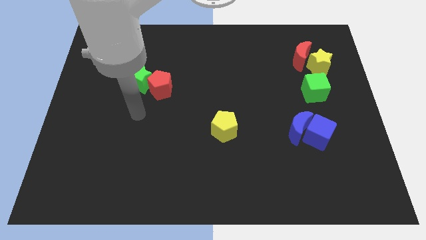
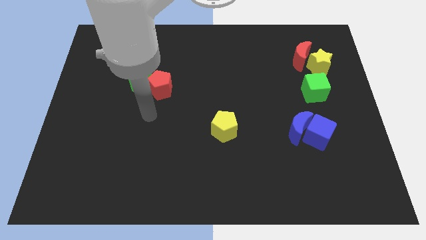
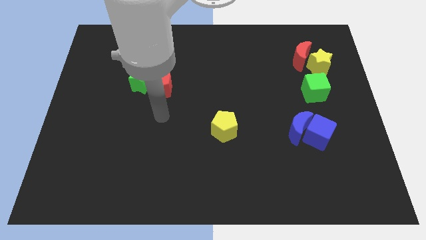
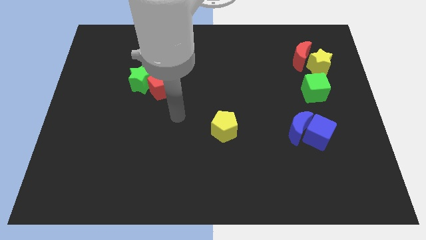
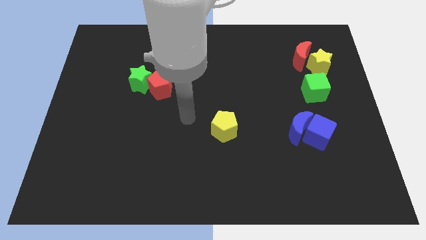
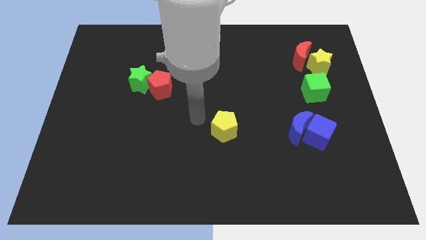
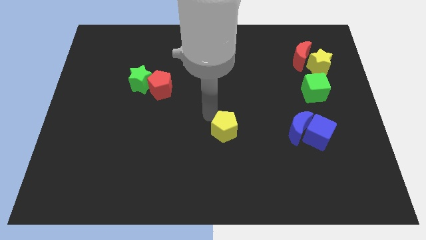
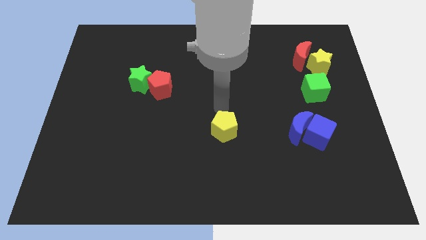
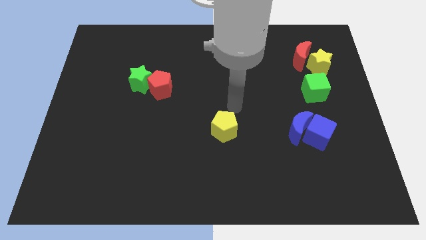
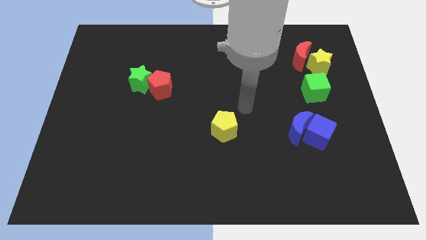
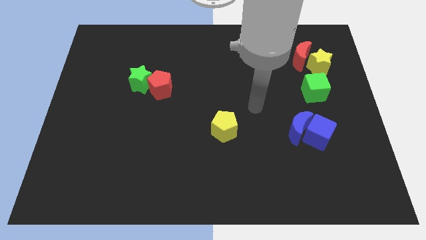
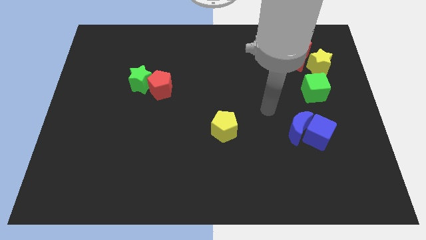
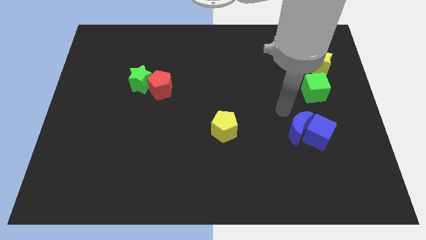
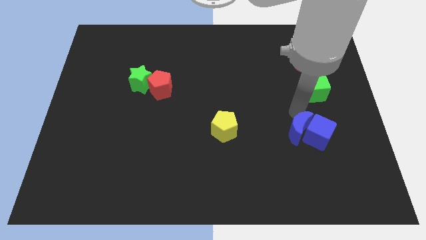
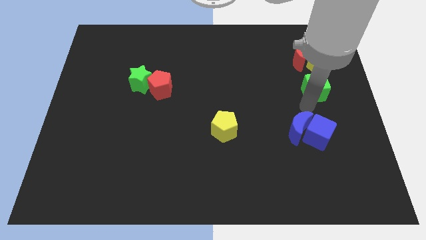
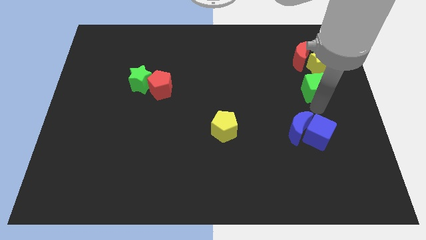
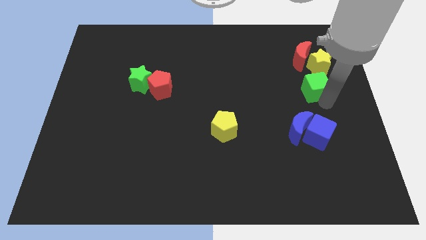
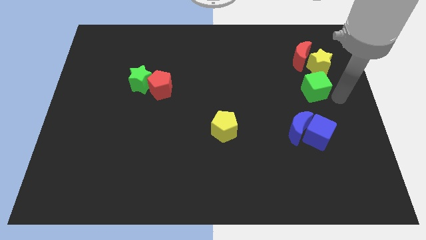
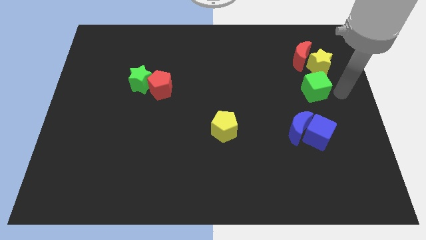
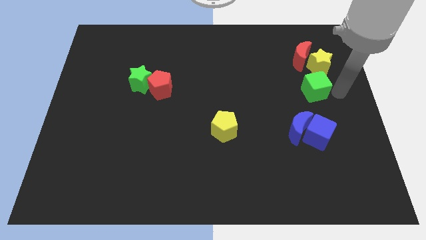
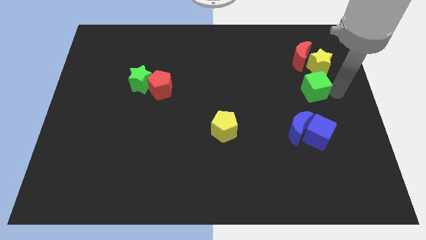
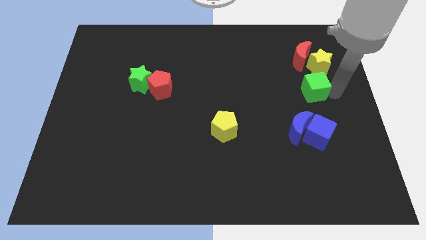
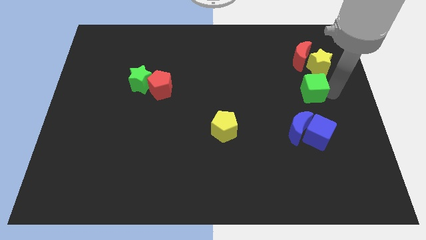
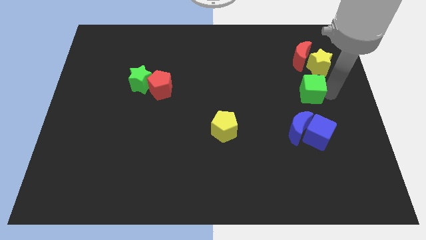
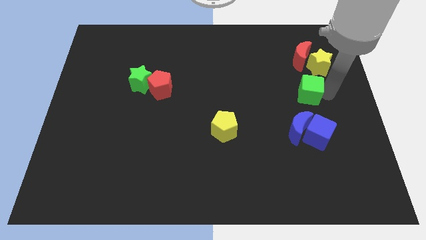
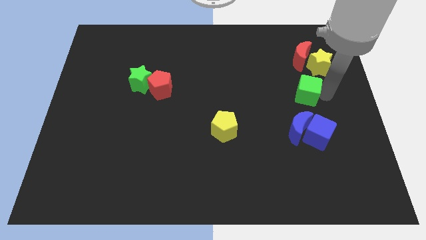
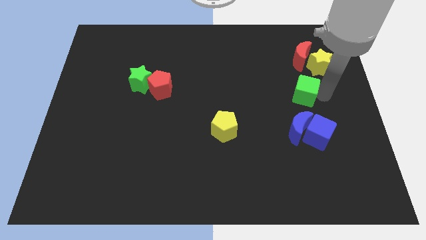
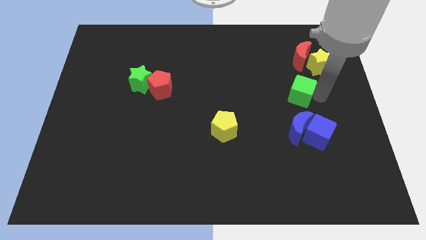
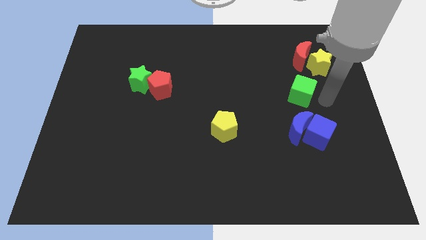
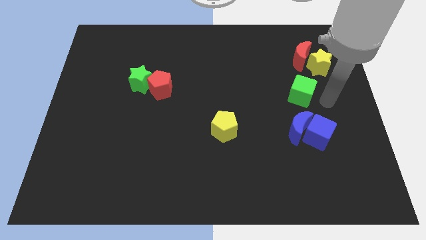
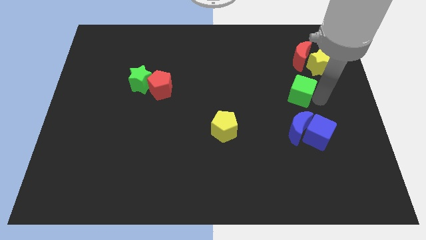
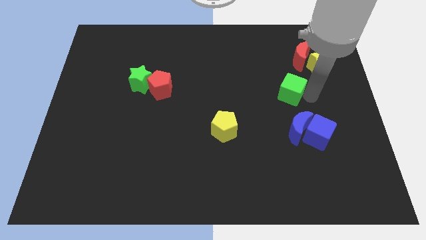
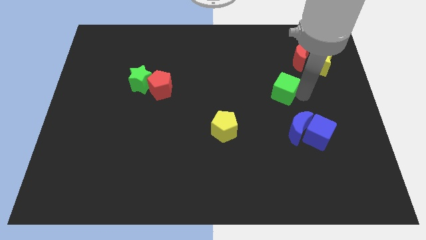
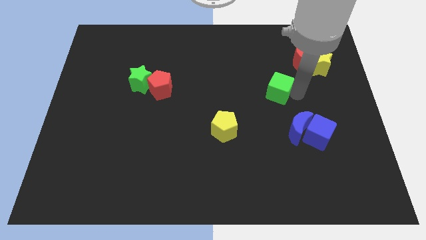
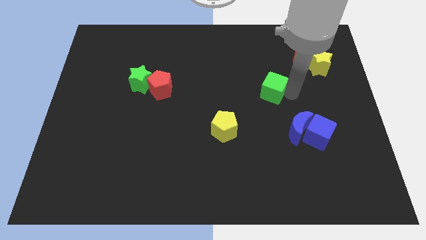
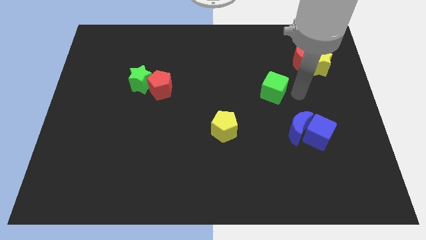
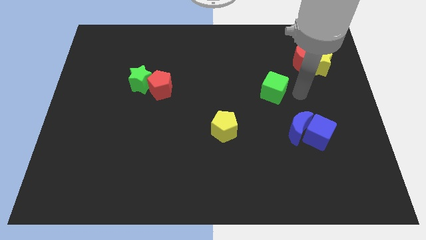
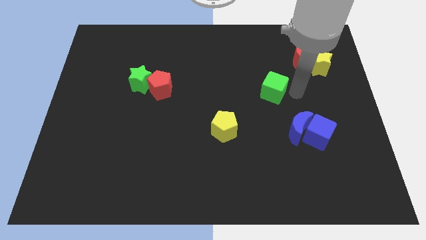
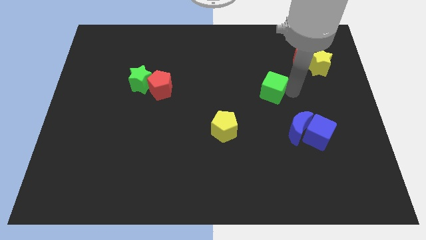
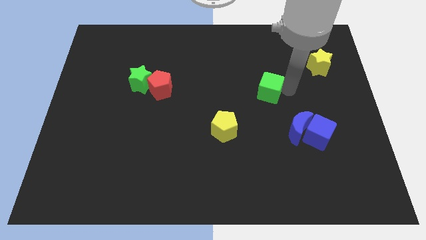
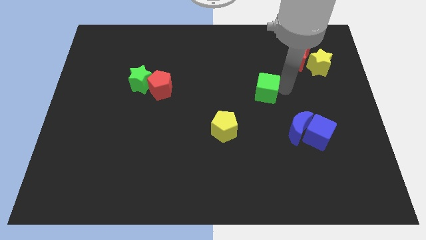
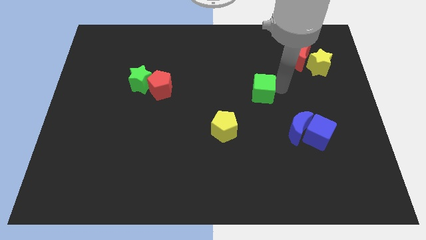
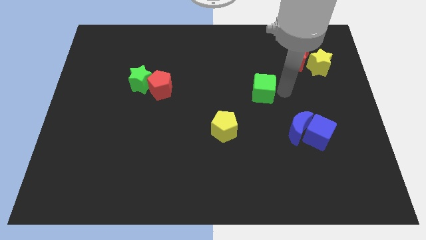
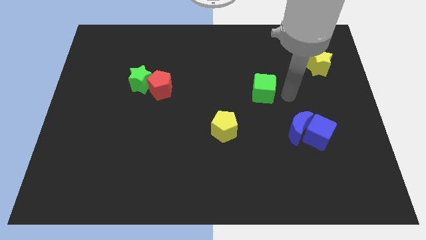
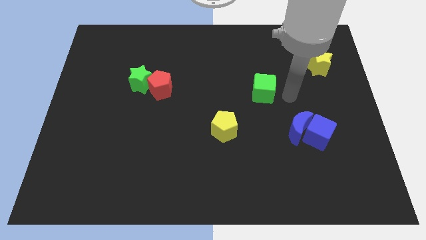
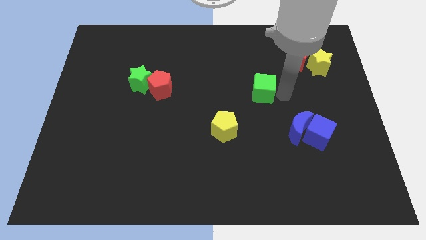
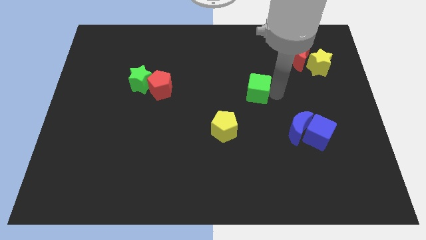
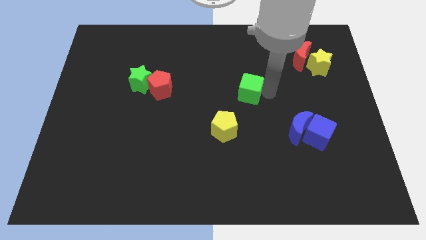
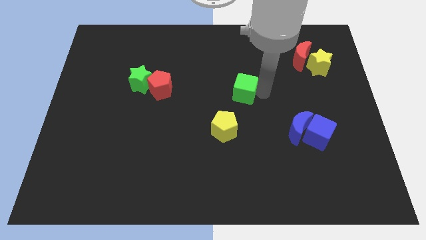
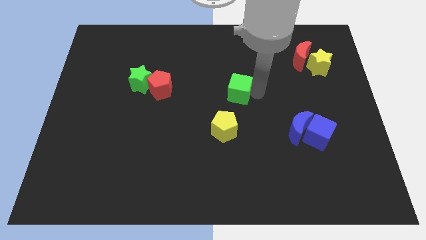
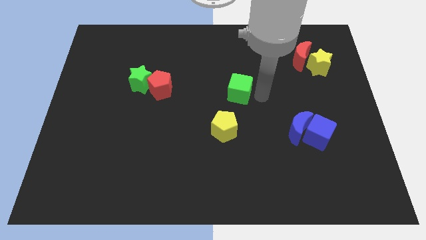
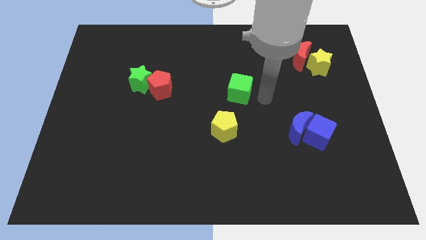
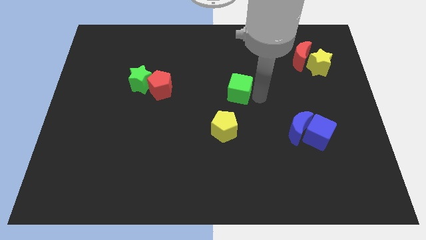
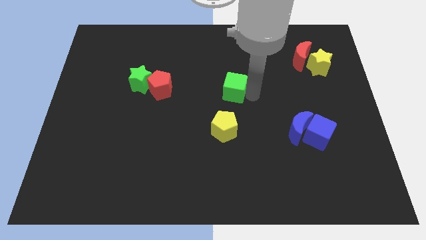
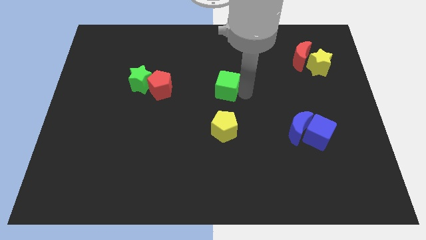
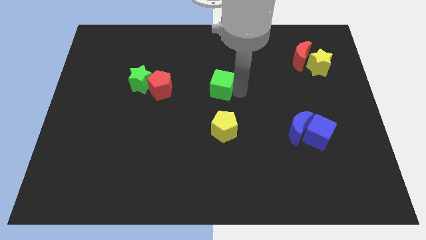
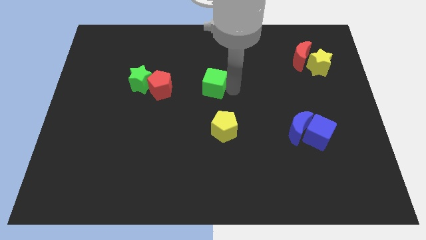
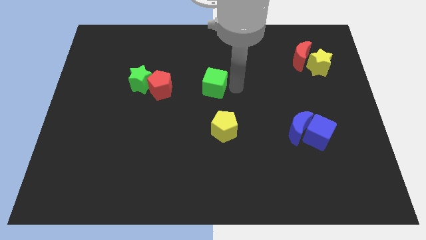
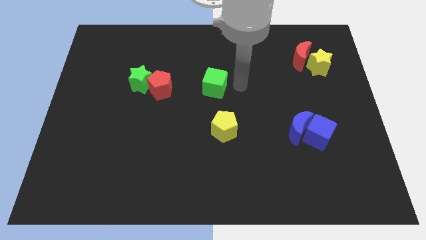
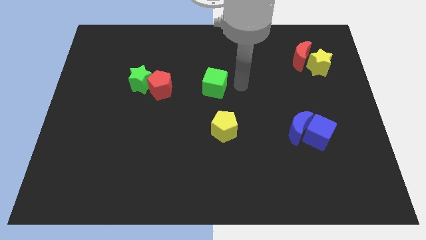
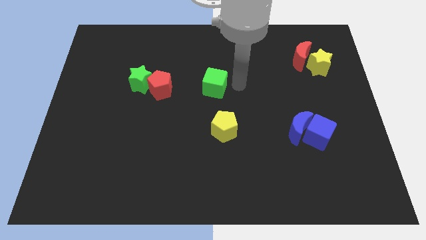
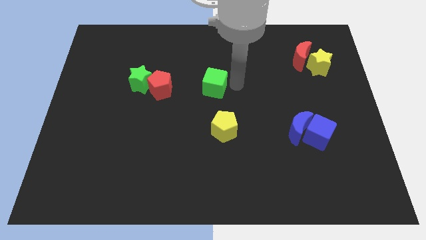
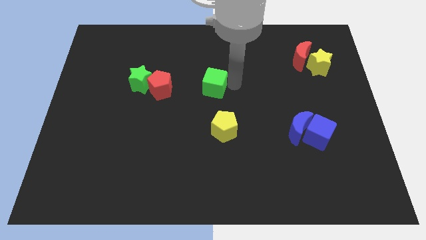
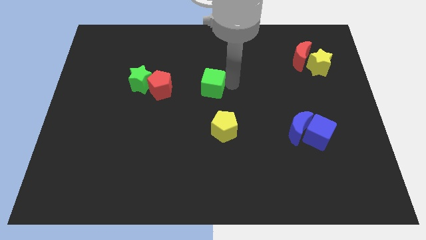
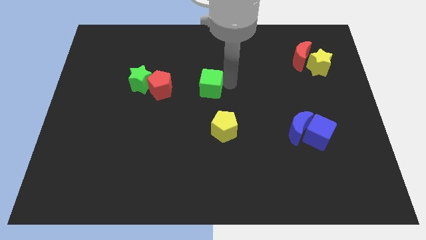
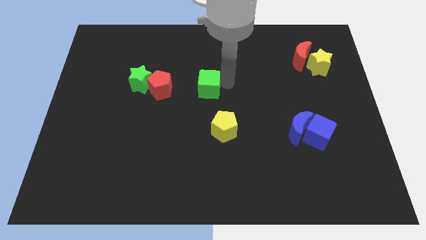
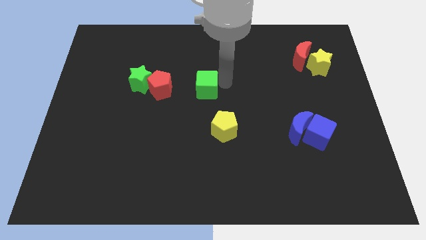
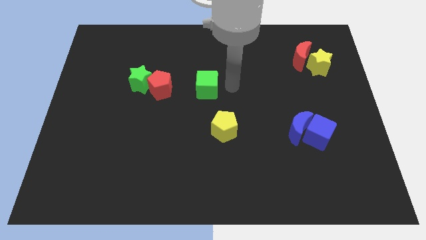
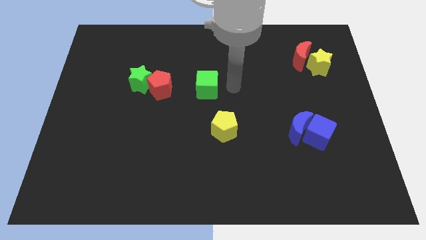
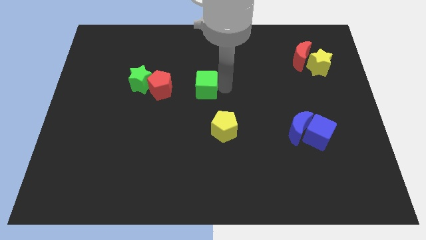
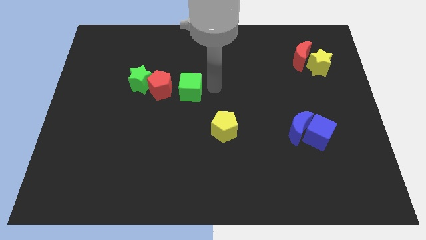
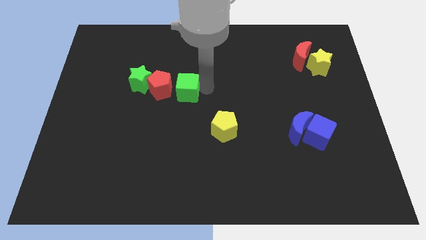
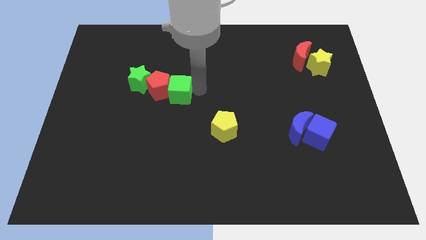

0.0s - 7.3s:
slide the green cube towards the red pentagon

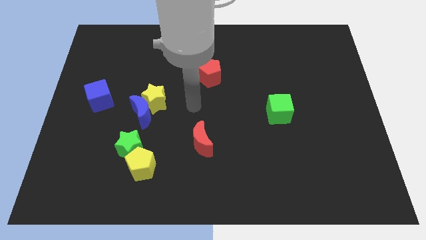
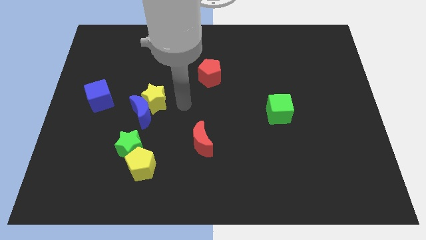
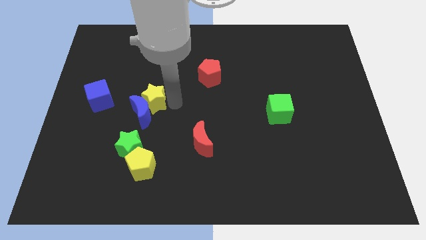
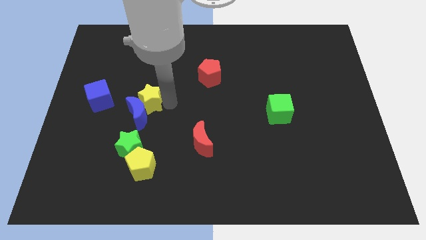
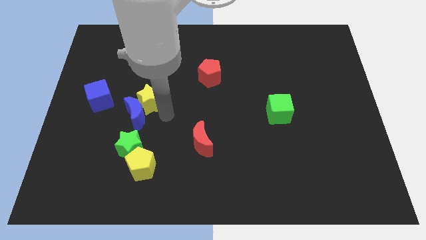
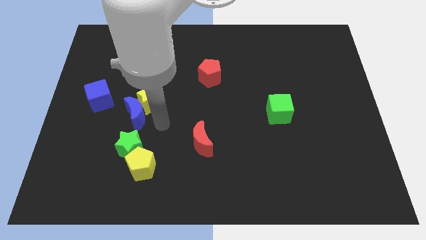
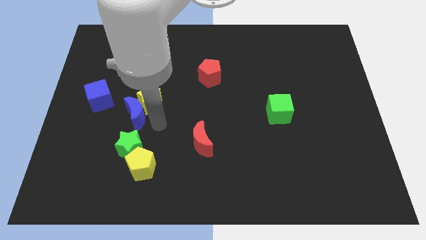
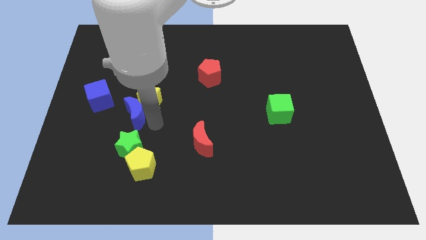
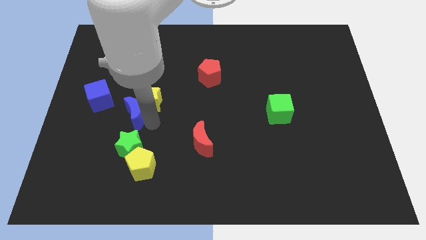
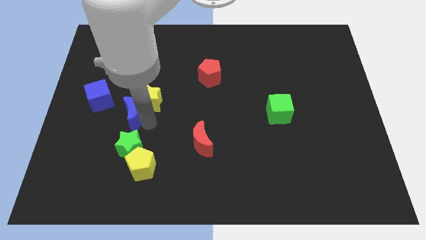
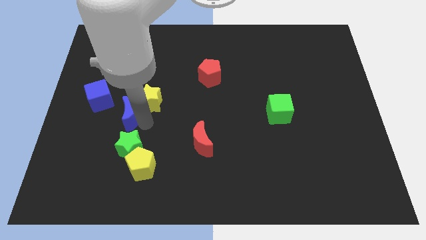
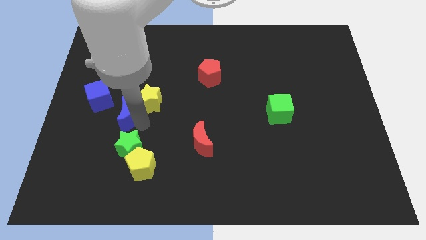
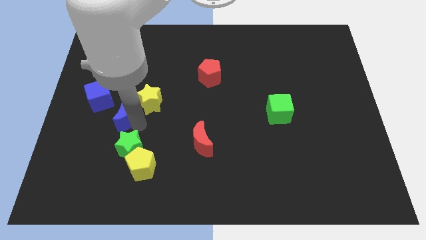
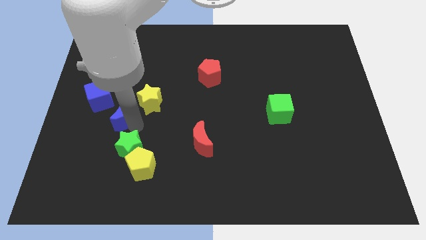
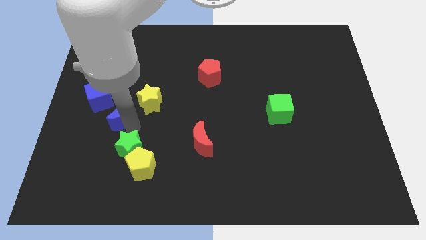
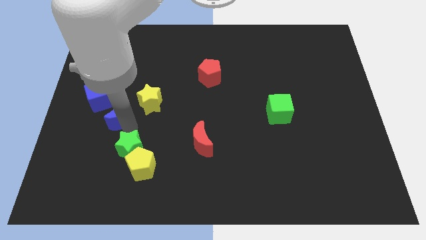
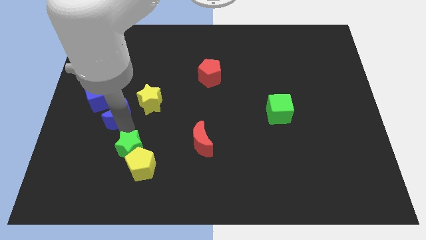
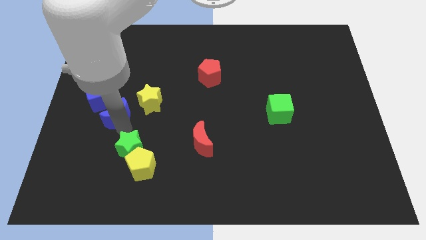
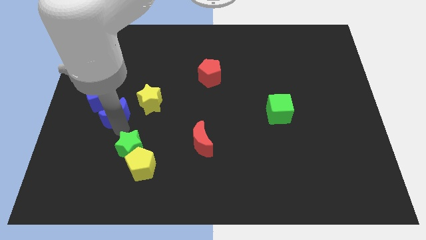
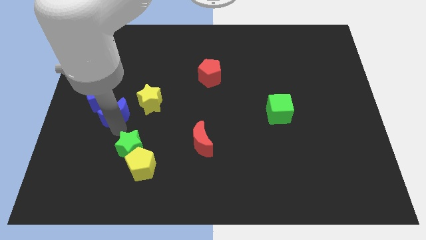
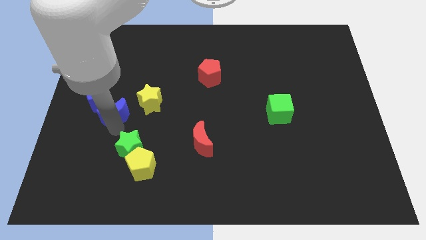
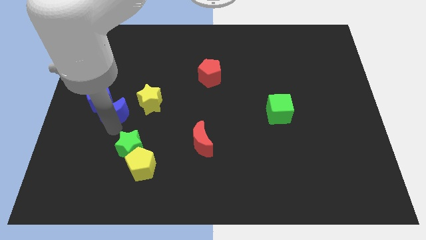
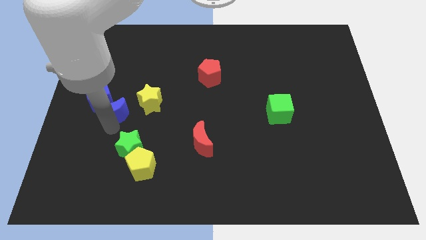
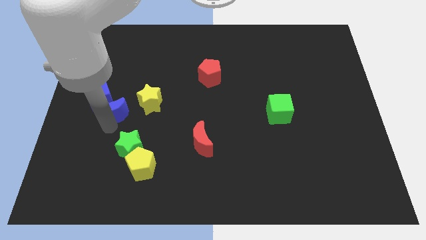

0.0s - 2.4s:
slide the blue moon close to the blue cube
